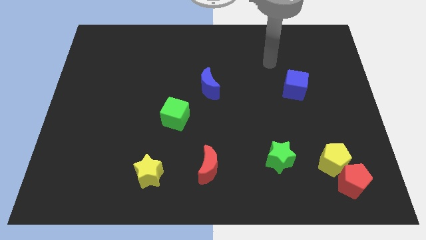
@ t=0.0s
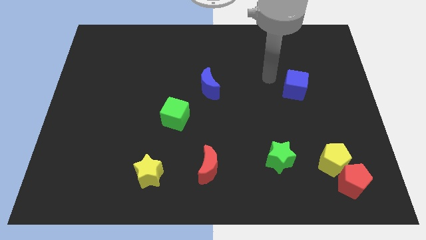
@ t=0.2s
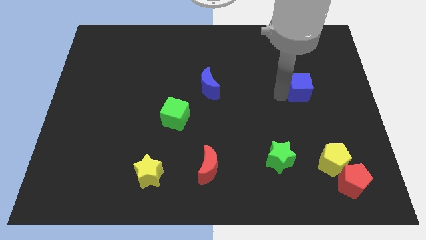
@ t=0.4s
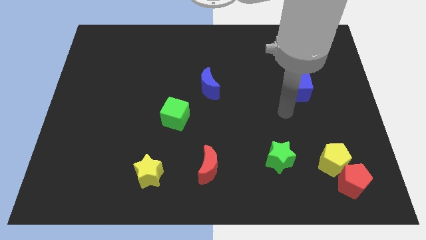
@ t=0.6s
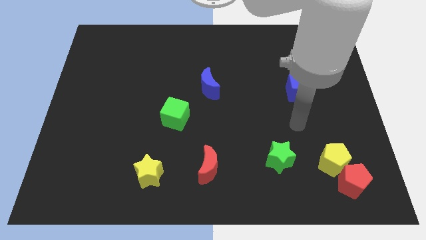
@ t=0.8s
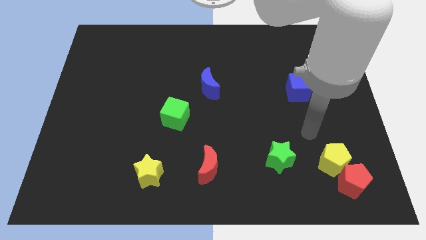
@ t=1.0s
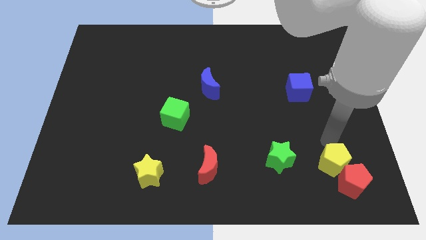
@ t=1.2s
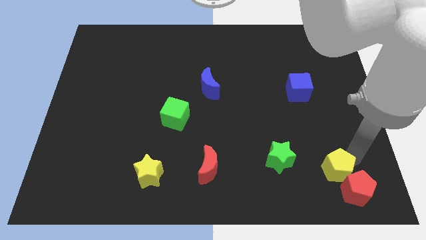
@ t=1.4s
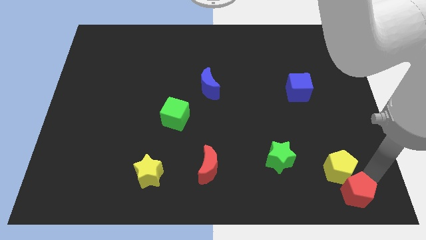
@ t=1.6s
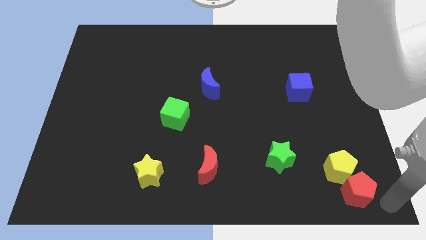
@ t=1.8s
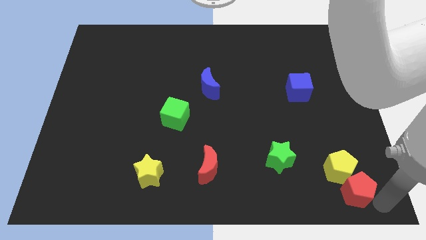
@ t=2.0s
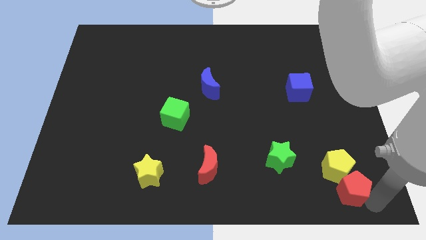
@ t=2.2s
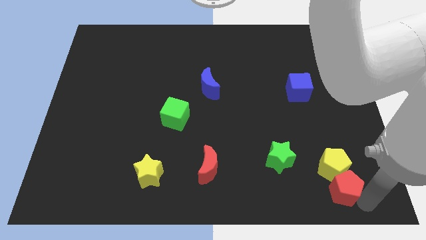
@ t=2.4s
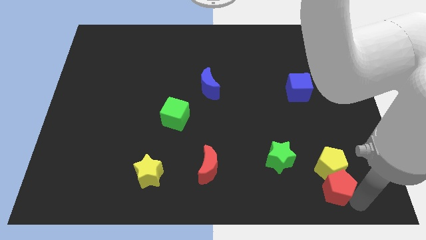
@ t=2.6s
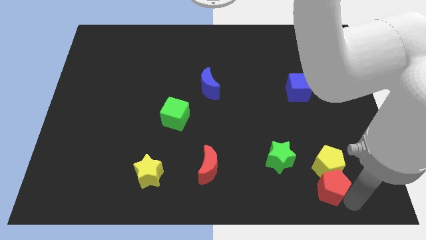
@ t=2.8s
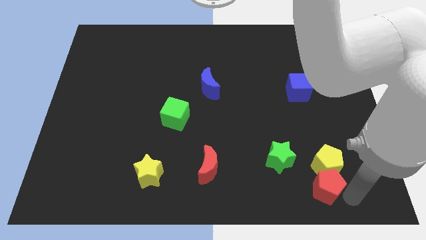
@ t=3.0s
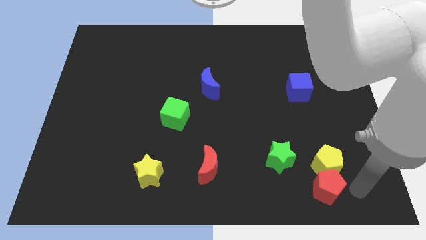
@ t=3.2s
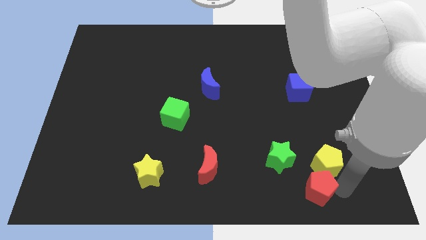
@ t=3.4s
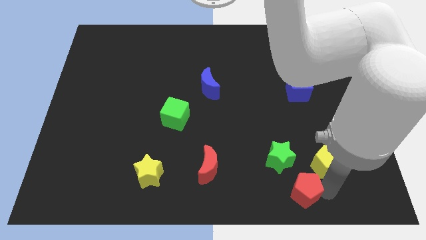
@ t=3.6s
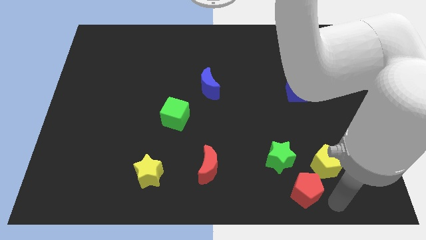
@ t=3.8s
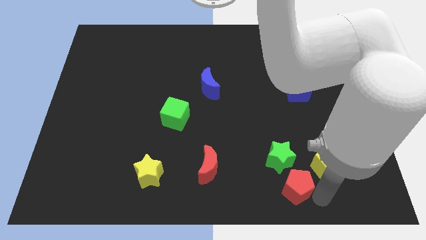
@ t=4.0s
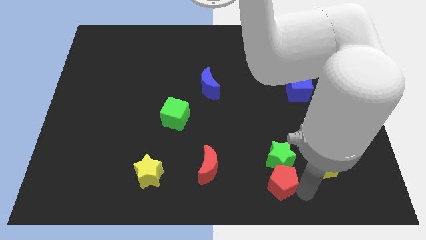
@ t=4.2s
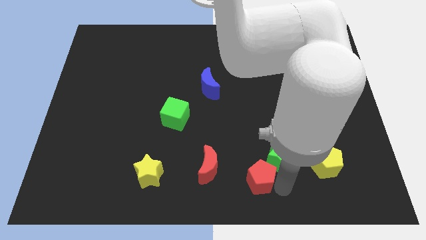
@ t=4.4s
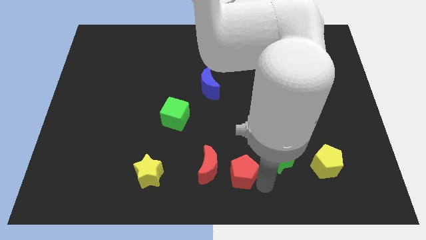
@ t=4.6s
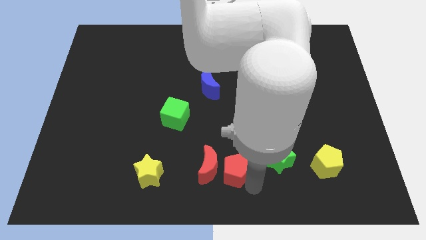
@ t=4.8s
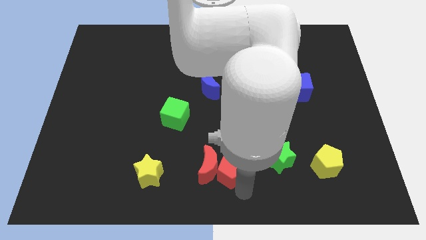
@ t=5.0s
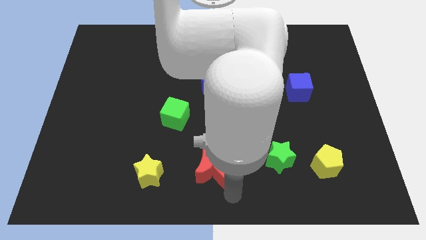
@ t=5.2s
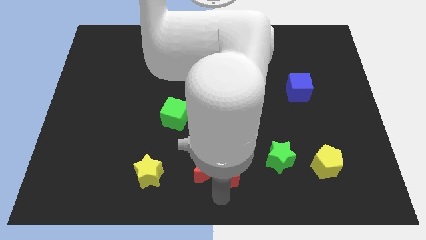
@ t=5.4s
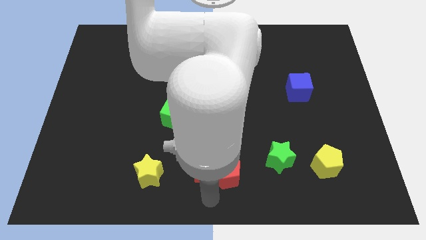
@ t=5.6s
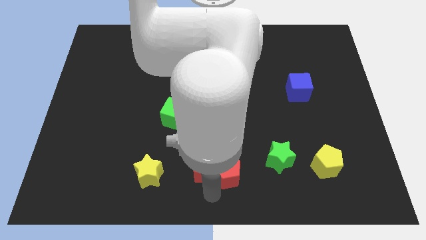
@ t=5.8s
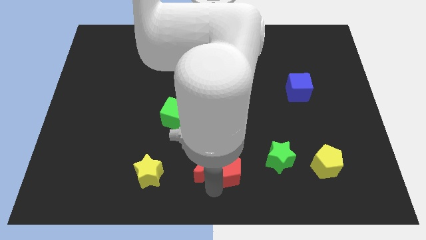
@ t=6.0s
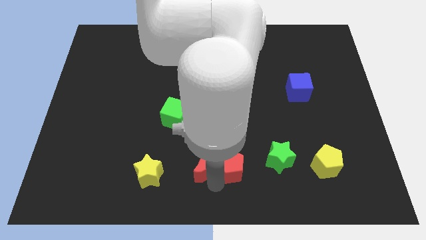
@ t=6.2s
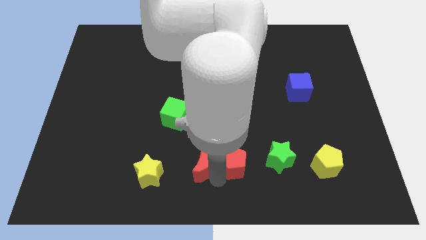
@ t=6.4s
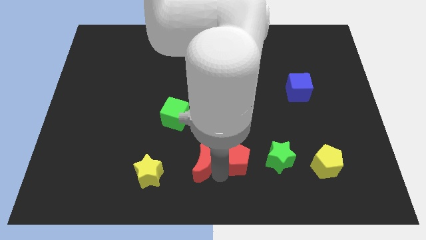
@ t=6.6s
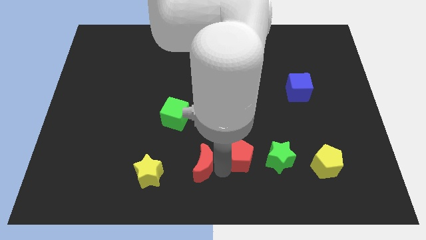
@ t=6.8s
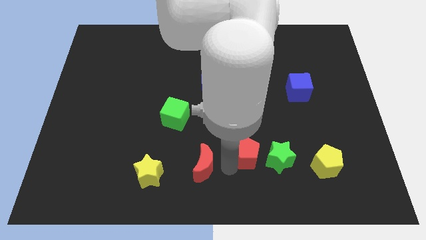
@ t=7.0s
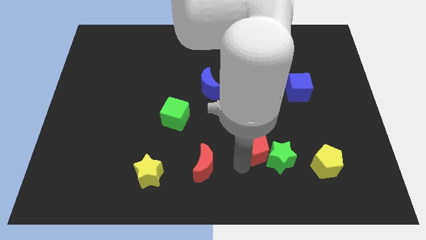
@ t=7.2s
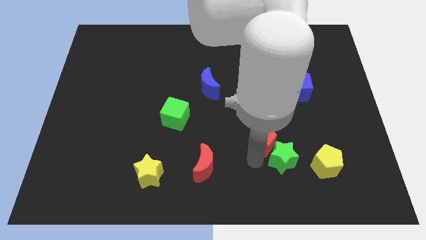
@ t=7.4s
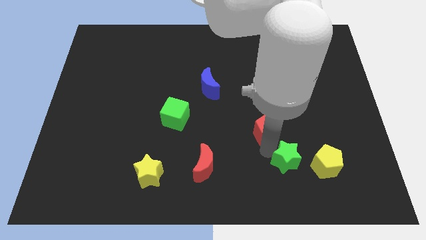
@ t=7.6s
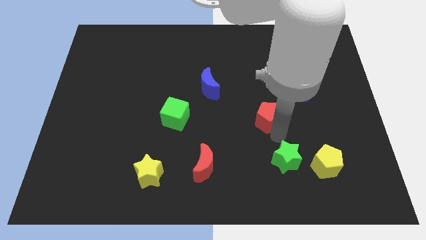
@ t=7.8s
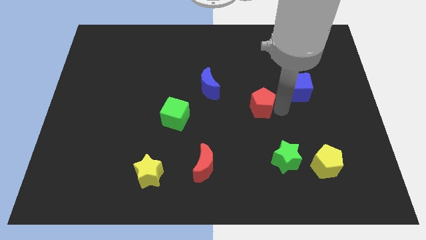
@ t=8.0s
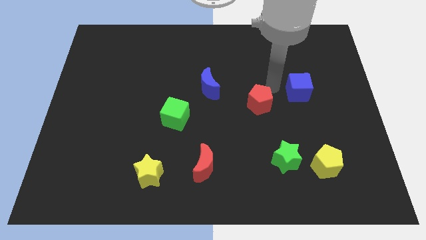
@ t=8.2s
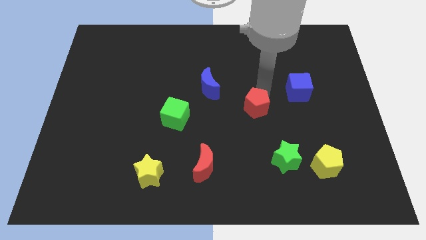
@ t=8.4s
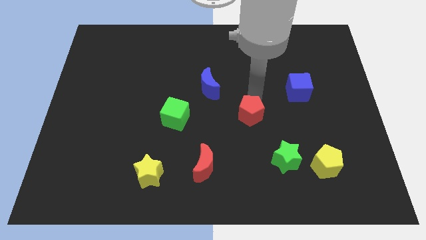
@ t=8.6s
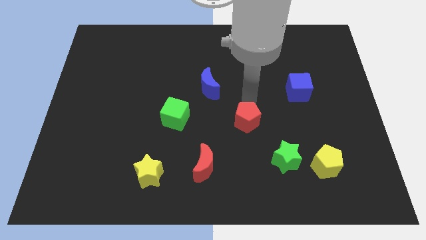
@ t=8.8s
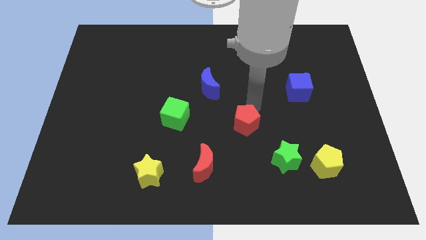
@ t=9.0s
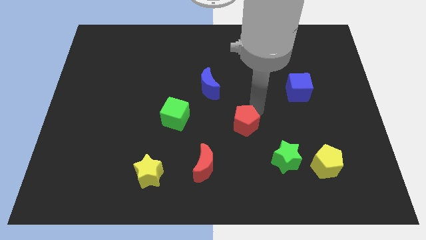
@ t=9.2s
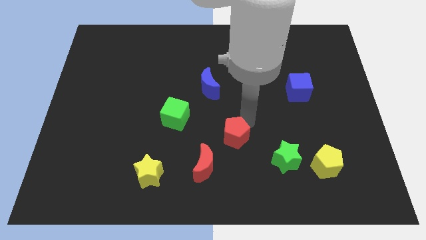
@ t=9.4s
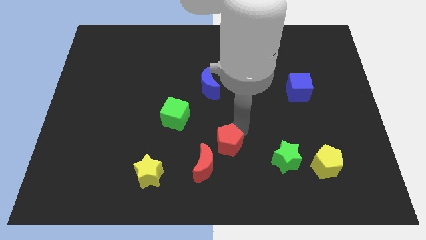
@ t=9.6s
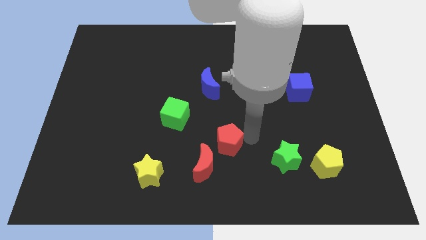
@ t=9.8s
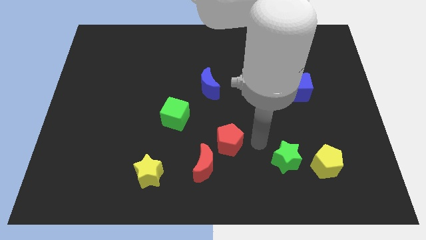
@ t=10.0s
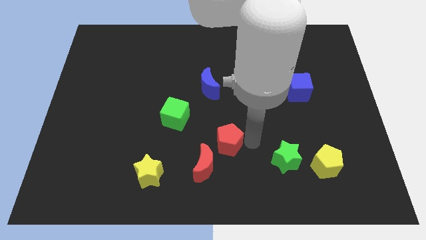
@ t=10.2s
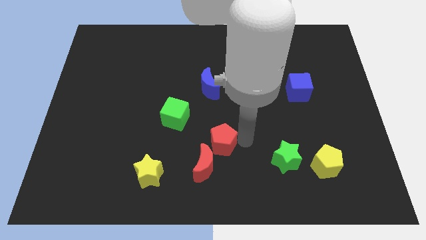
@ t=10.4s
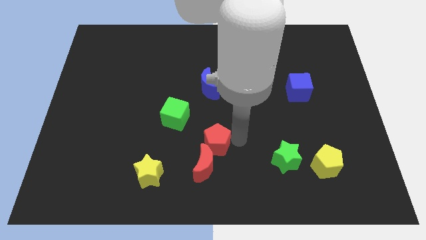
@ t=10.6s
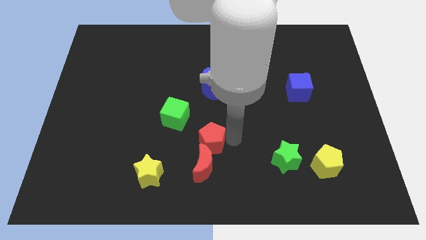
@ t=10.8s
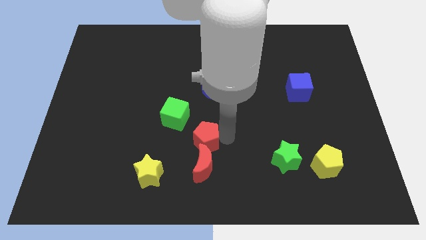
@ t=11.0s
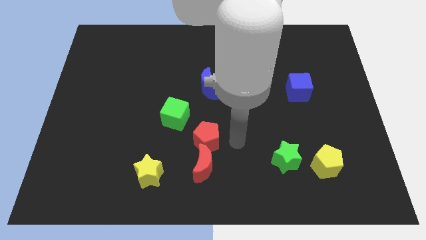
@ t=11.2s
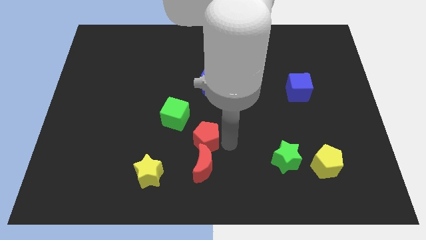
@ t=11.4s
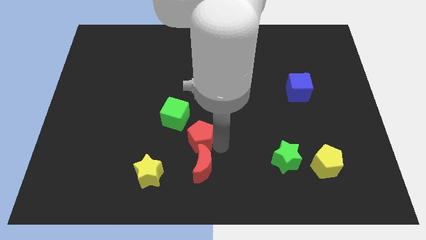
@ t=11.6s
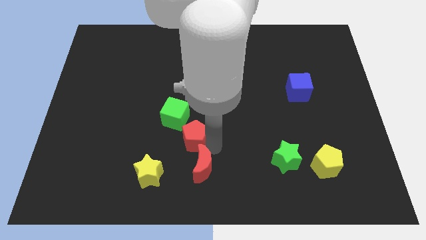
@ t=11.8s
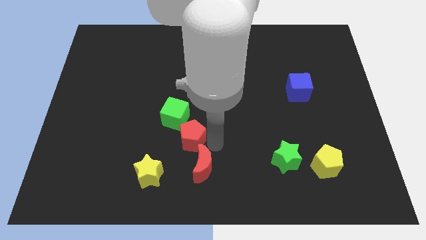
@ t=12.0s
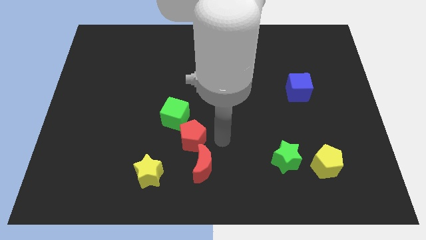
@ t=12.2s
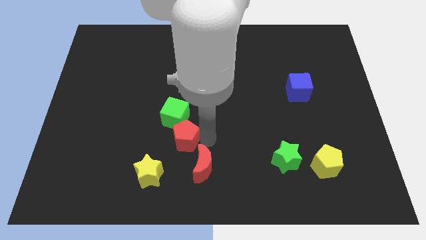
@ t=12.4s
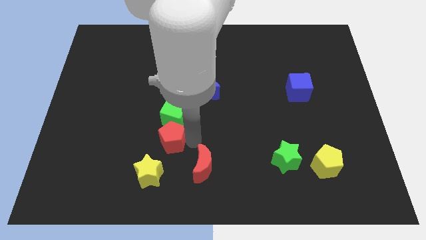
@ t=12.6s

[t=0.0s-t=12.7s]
push the red pentagon to the bottom left side of the green cube
